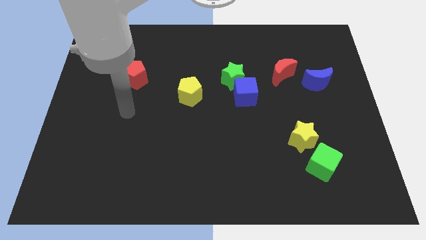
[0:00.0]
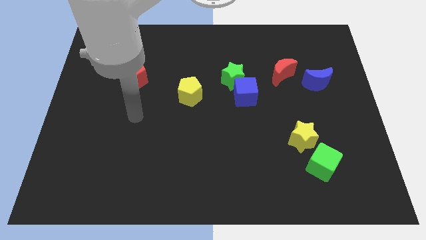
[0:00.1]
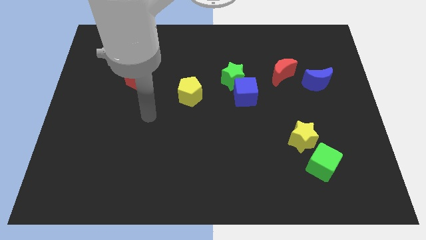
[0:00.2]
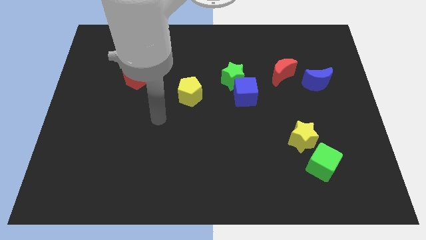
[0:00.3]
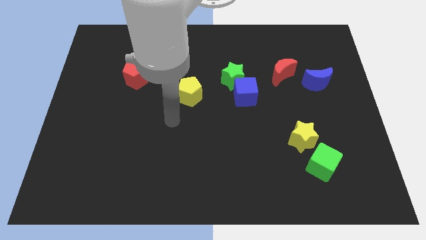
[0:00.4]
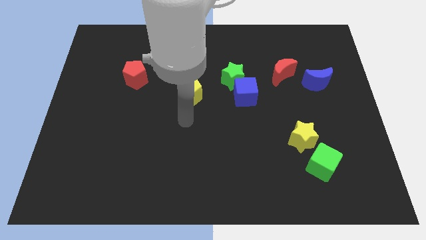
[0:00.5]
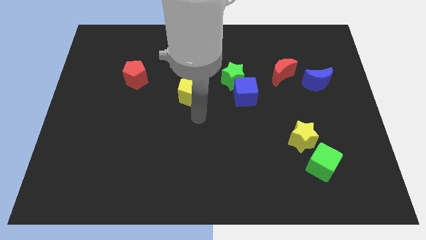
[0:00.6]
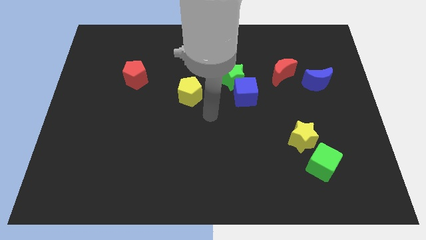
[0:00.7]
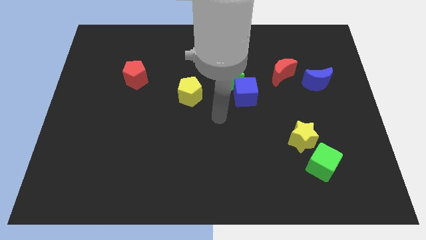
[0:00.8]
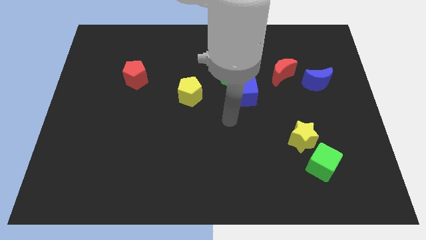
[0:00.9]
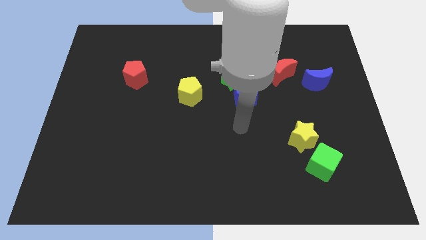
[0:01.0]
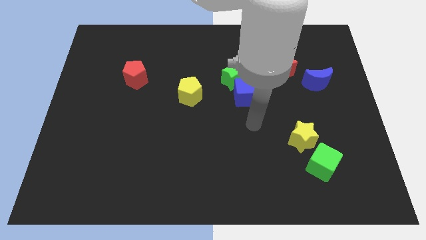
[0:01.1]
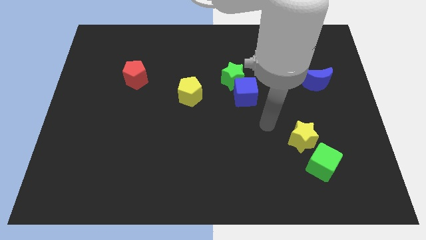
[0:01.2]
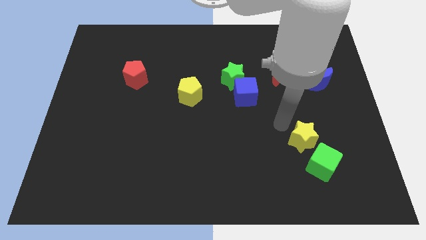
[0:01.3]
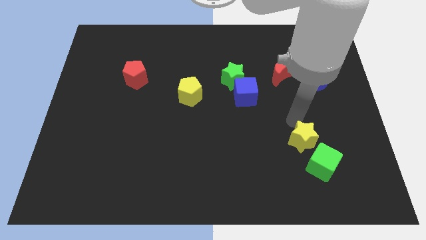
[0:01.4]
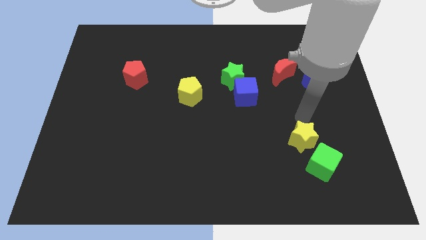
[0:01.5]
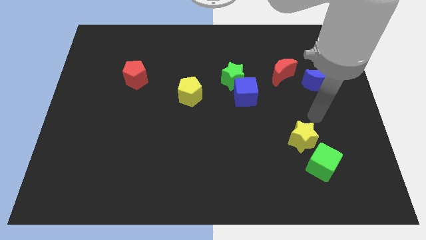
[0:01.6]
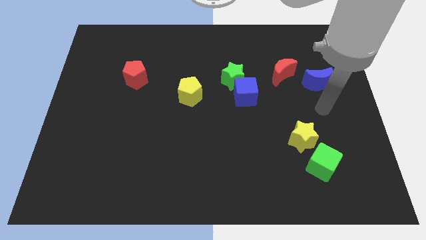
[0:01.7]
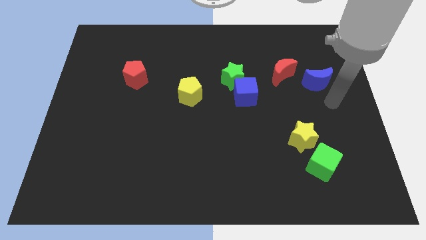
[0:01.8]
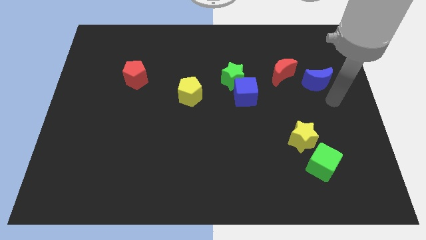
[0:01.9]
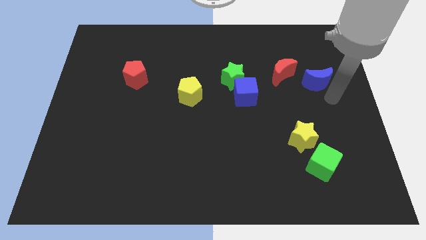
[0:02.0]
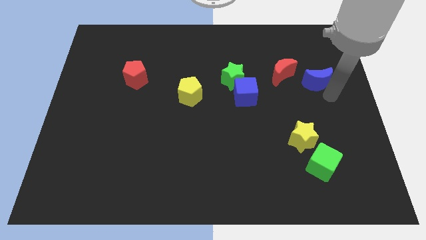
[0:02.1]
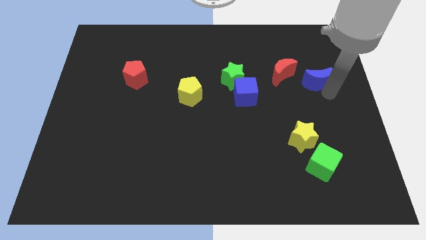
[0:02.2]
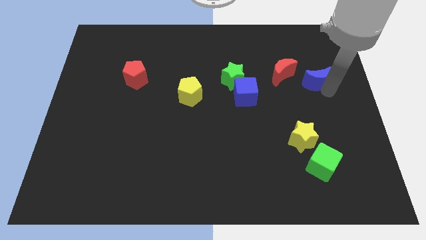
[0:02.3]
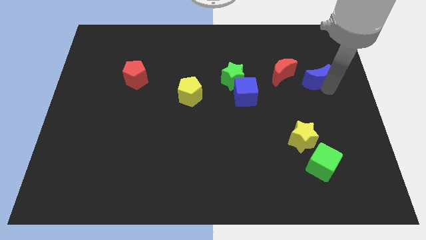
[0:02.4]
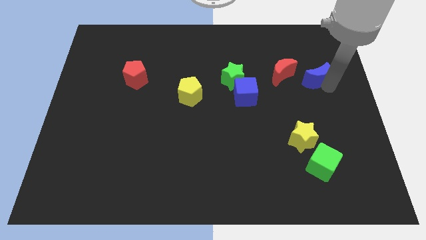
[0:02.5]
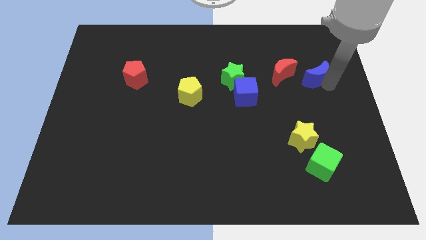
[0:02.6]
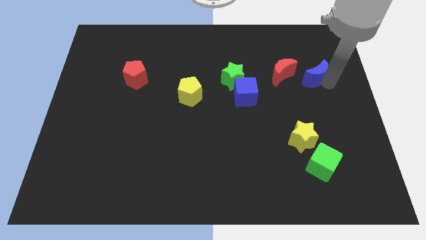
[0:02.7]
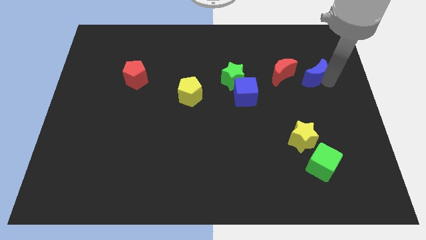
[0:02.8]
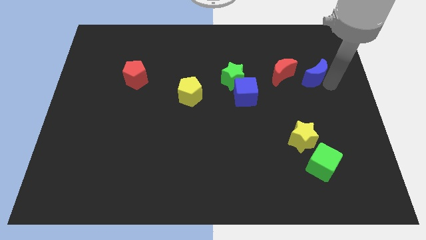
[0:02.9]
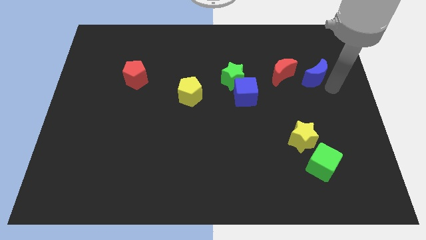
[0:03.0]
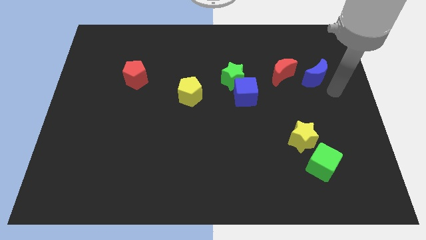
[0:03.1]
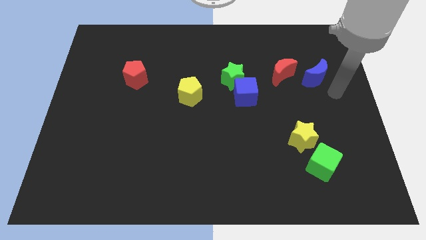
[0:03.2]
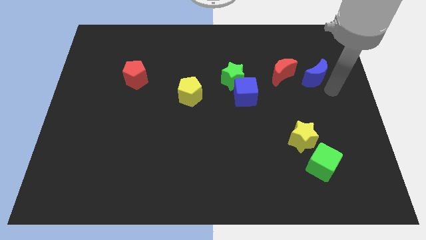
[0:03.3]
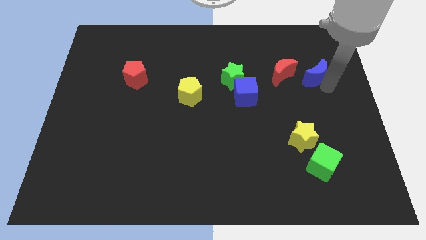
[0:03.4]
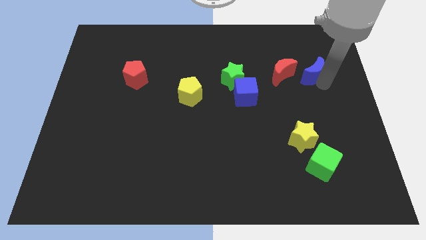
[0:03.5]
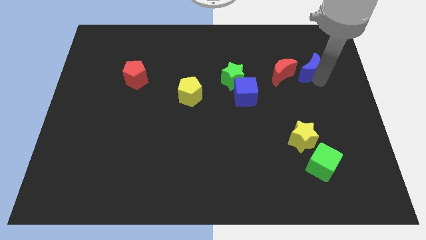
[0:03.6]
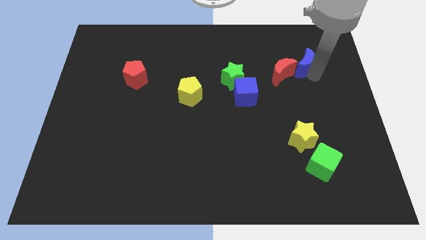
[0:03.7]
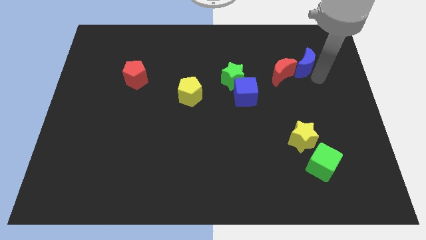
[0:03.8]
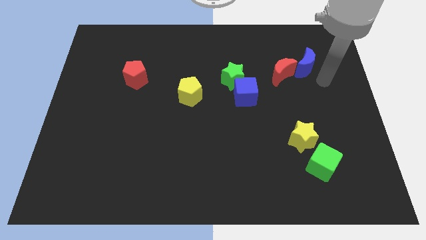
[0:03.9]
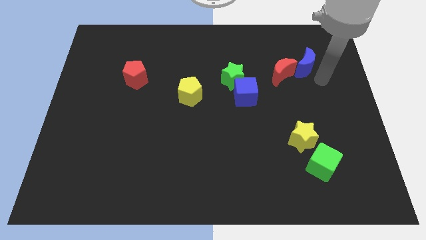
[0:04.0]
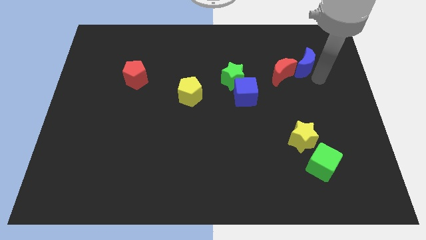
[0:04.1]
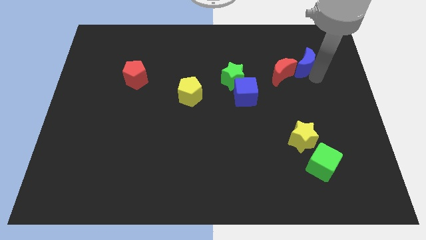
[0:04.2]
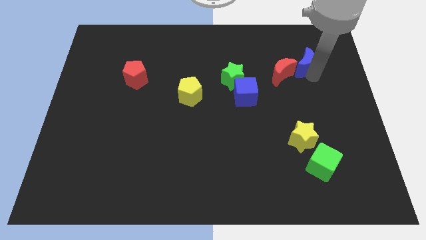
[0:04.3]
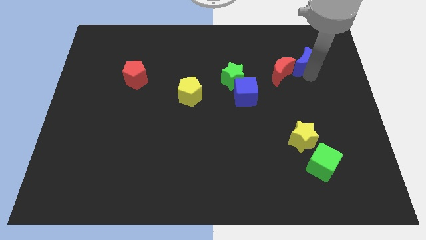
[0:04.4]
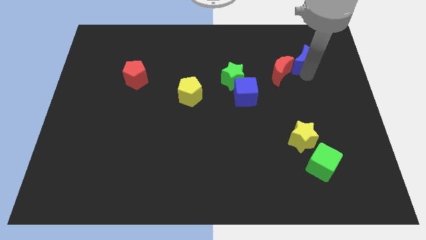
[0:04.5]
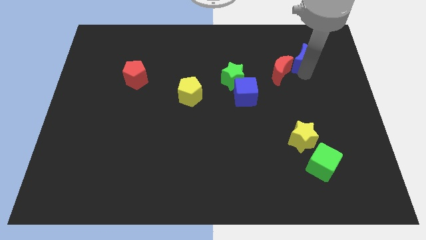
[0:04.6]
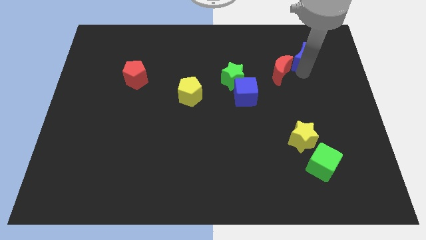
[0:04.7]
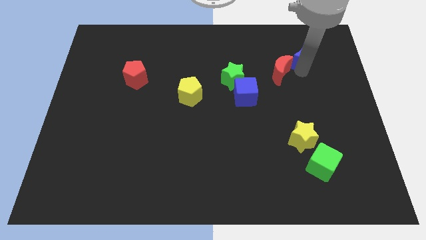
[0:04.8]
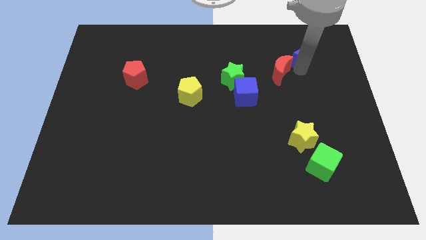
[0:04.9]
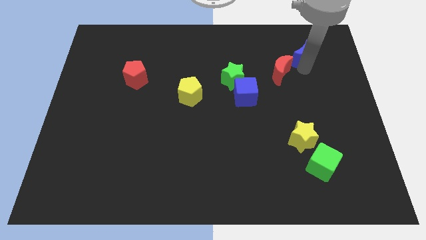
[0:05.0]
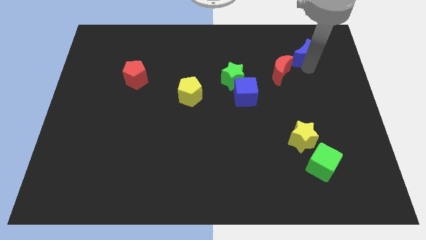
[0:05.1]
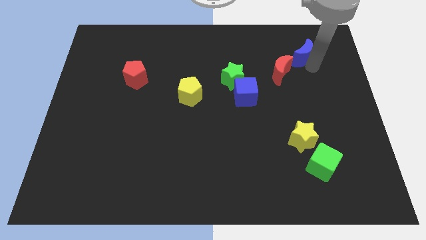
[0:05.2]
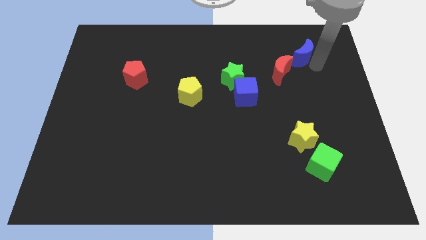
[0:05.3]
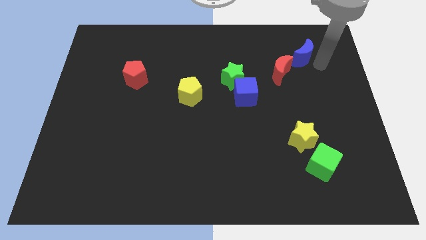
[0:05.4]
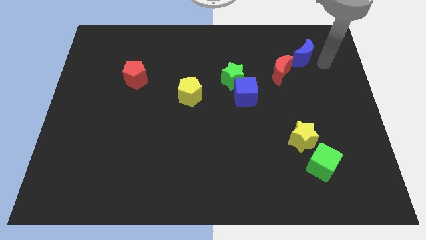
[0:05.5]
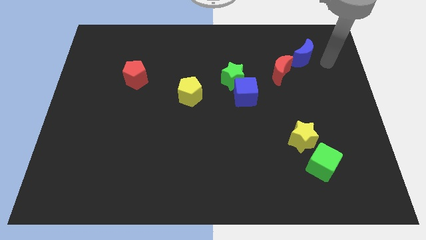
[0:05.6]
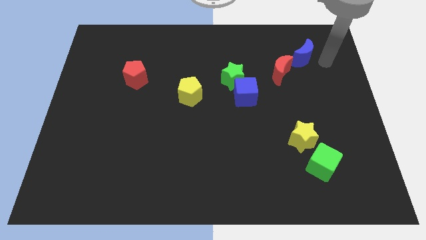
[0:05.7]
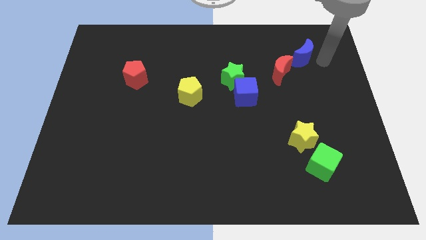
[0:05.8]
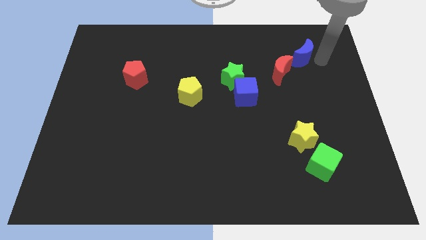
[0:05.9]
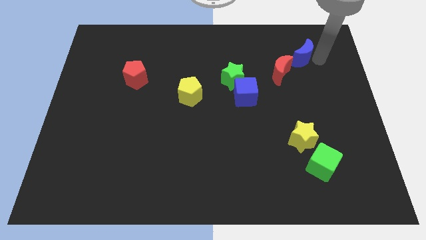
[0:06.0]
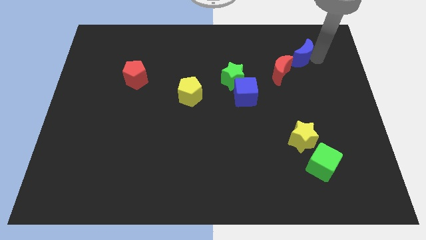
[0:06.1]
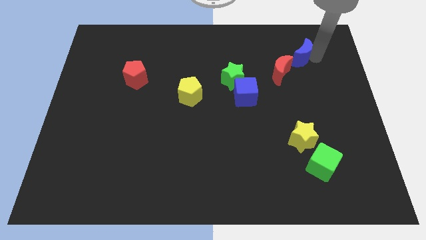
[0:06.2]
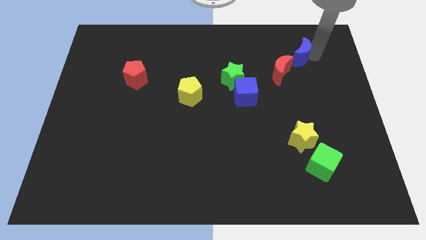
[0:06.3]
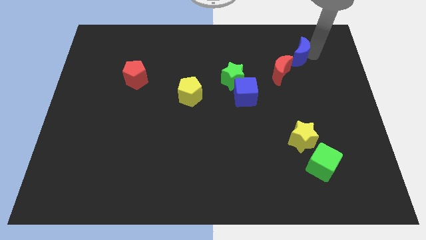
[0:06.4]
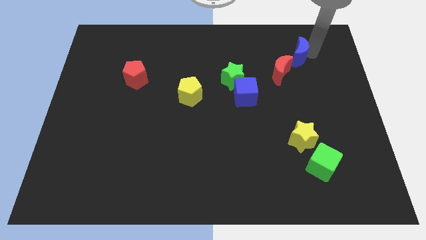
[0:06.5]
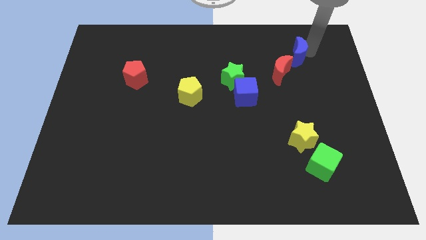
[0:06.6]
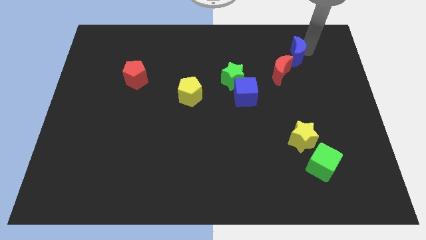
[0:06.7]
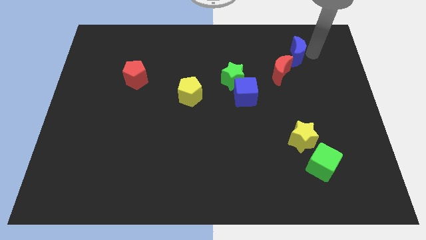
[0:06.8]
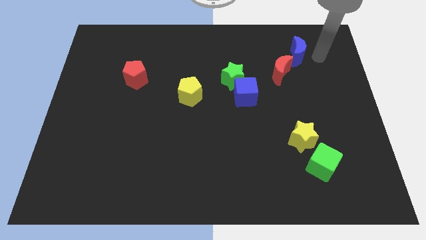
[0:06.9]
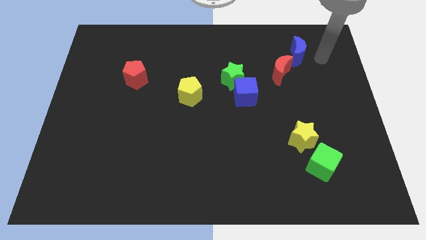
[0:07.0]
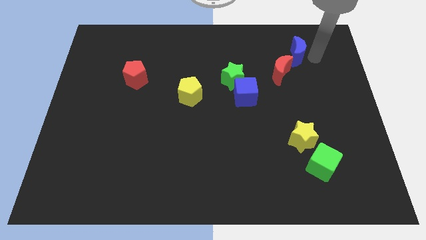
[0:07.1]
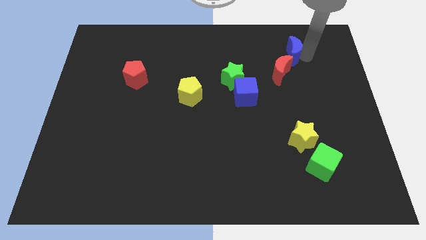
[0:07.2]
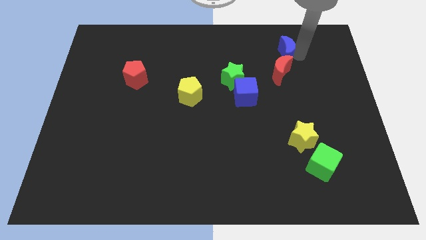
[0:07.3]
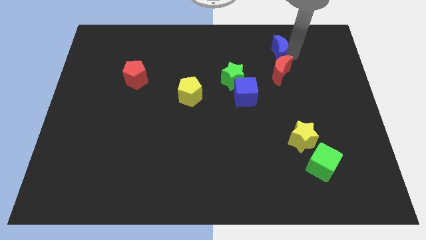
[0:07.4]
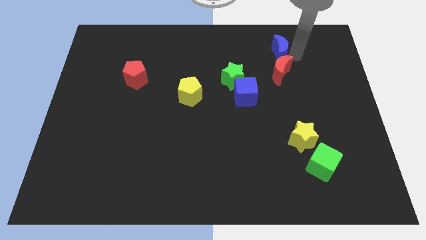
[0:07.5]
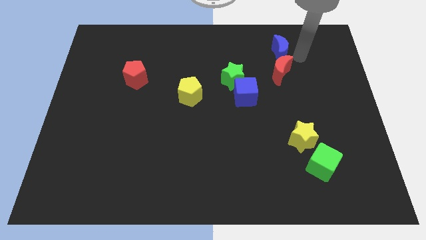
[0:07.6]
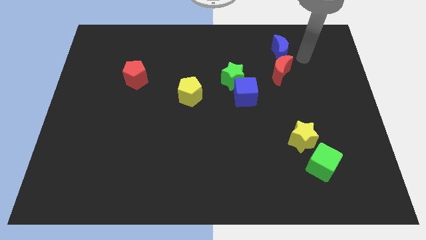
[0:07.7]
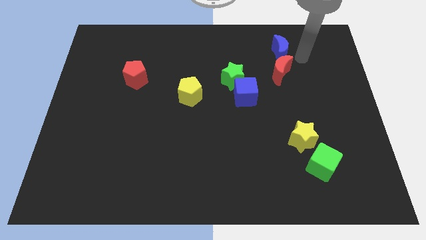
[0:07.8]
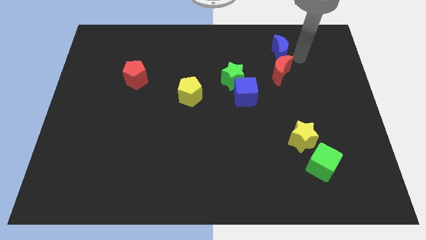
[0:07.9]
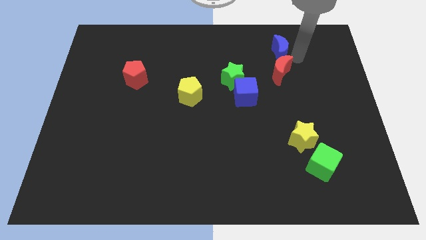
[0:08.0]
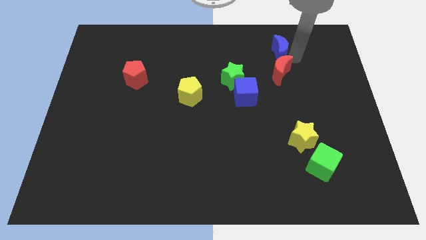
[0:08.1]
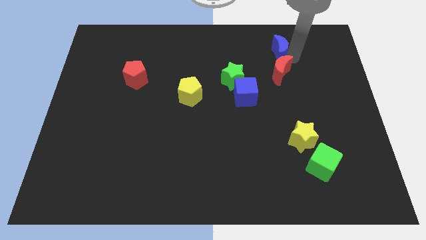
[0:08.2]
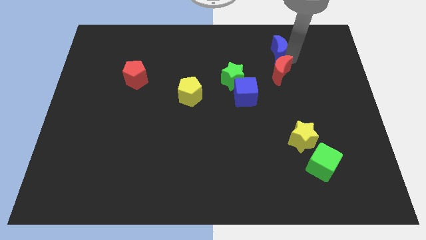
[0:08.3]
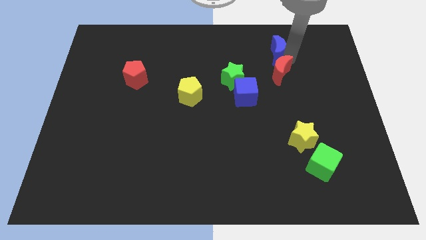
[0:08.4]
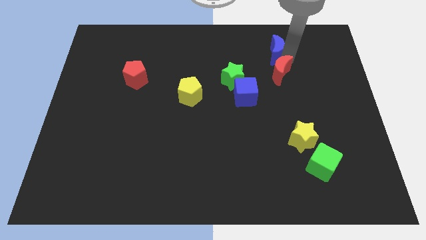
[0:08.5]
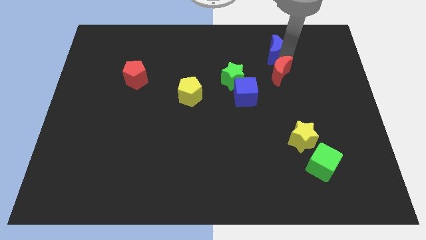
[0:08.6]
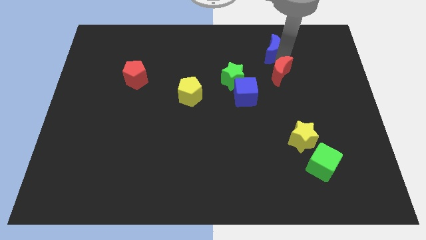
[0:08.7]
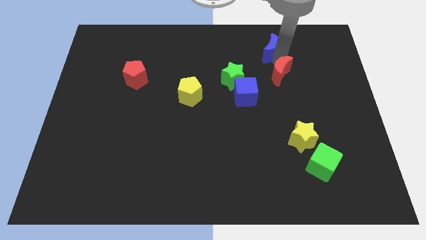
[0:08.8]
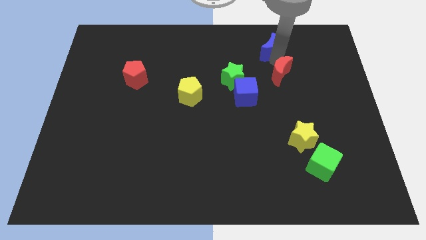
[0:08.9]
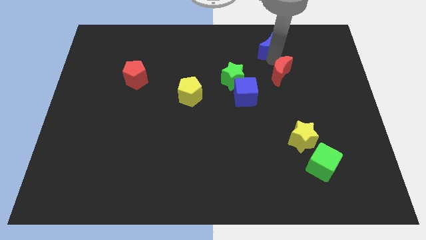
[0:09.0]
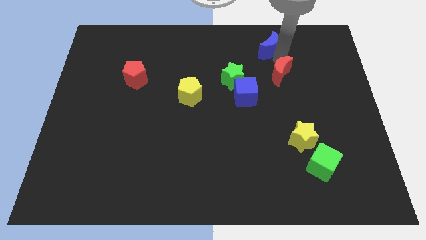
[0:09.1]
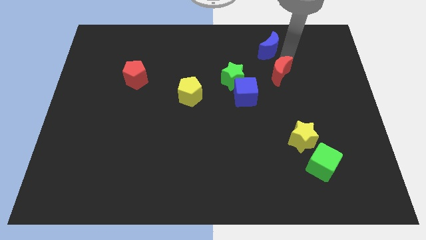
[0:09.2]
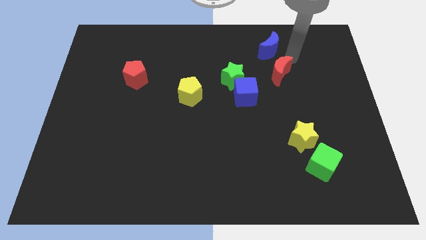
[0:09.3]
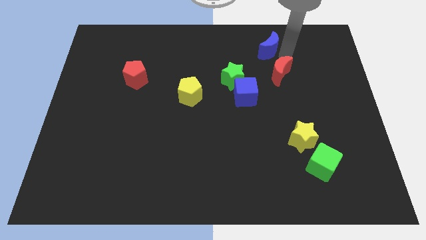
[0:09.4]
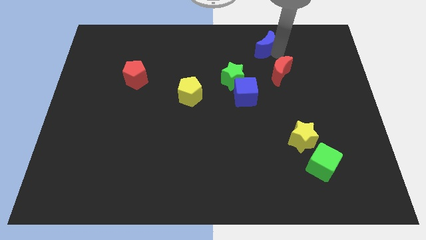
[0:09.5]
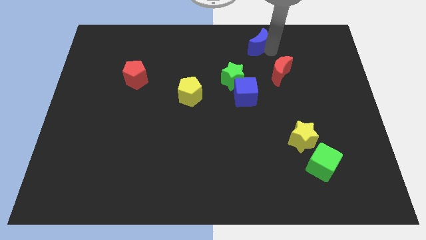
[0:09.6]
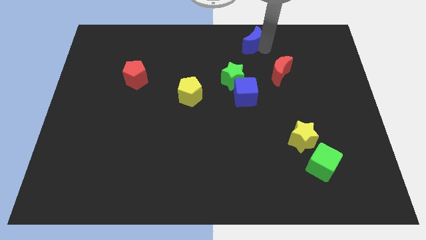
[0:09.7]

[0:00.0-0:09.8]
move the blue moon to the towards your base
